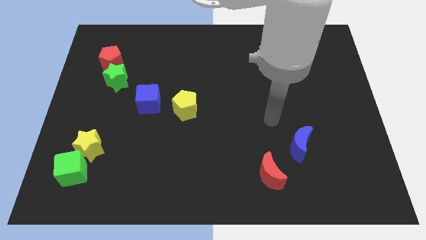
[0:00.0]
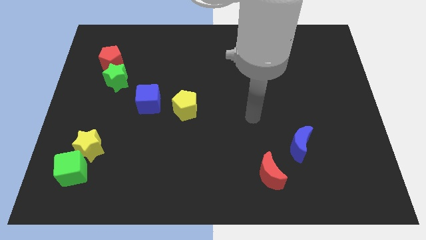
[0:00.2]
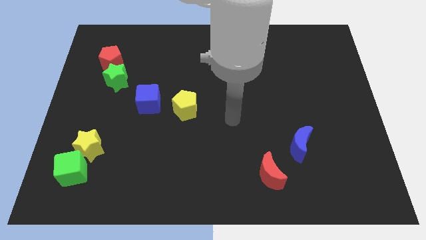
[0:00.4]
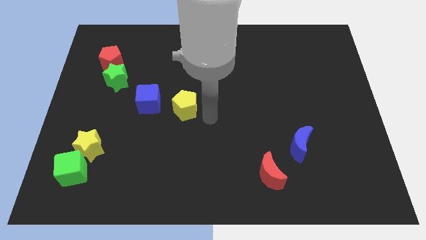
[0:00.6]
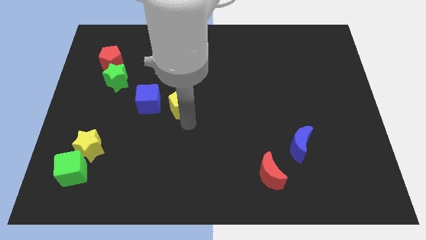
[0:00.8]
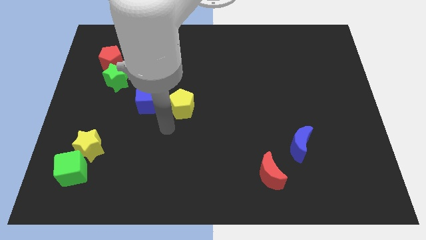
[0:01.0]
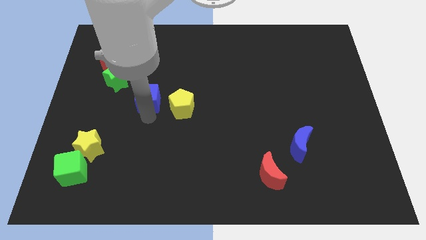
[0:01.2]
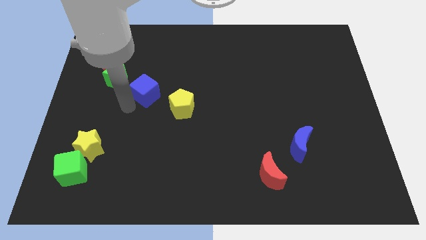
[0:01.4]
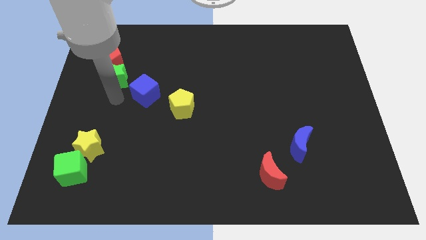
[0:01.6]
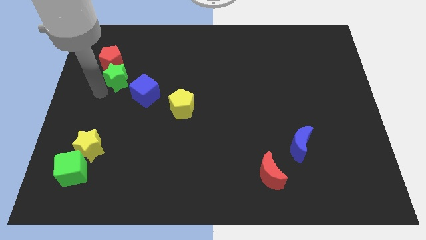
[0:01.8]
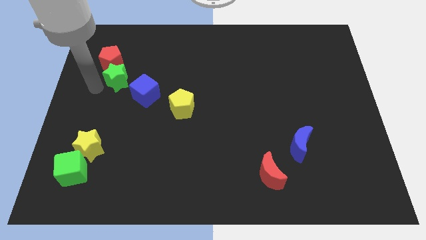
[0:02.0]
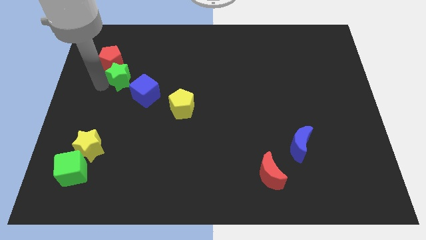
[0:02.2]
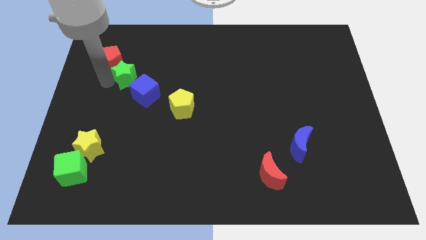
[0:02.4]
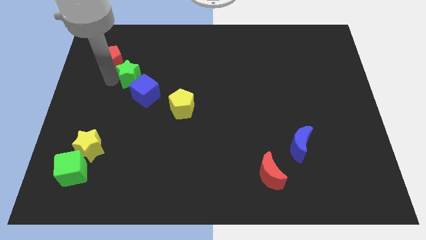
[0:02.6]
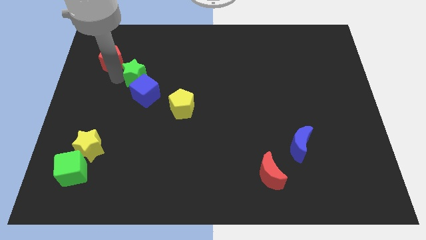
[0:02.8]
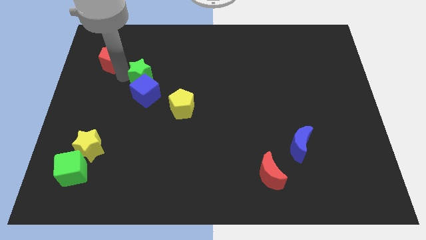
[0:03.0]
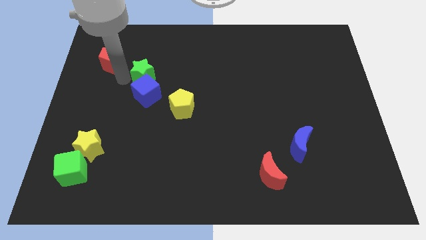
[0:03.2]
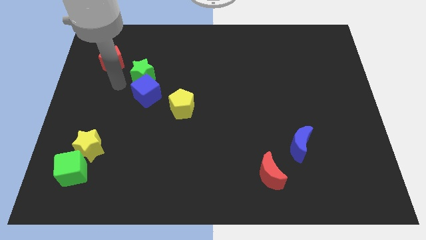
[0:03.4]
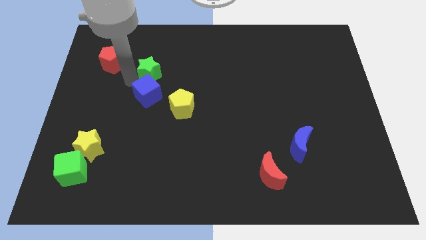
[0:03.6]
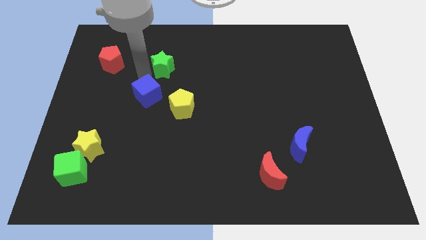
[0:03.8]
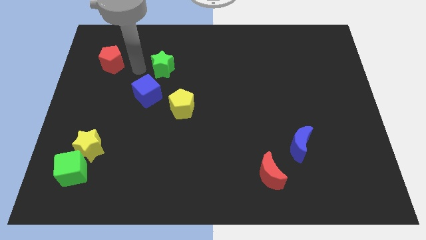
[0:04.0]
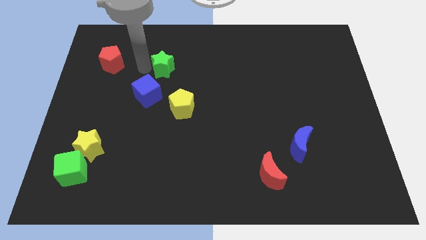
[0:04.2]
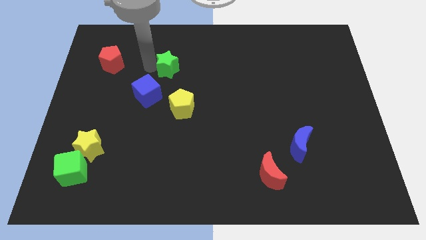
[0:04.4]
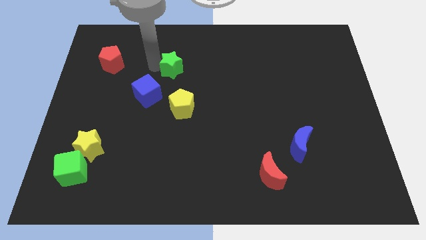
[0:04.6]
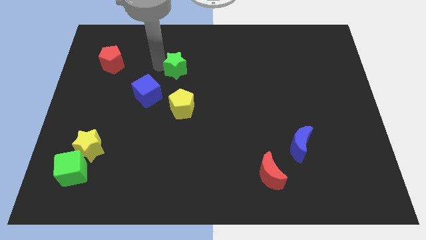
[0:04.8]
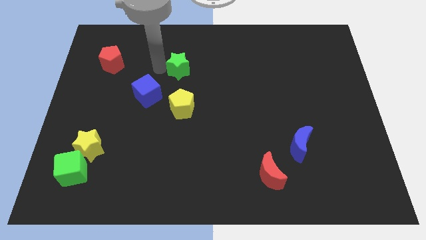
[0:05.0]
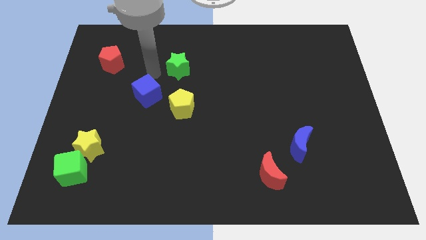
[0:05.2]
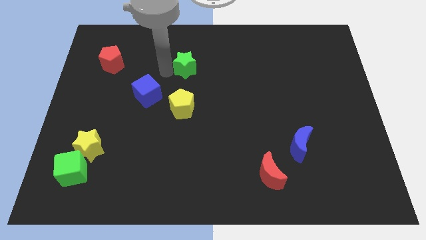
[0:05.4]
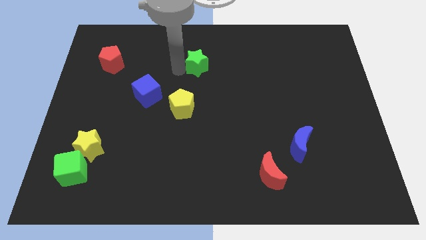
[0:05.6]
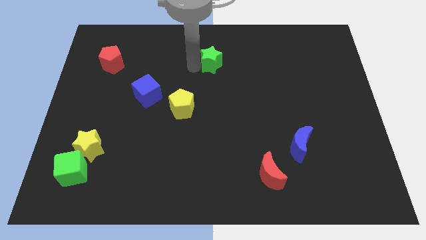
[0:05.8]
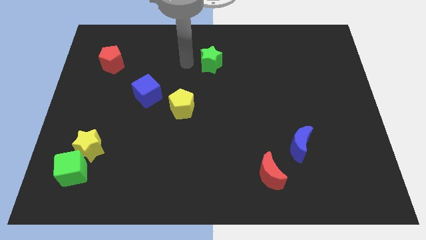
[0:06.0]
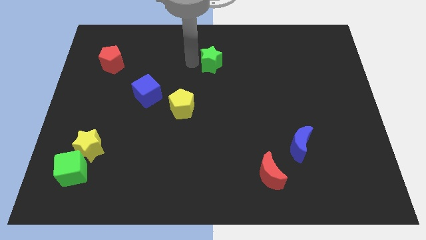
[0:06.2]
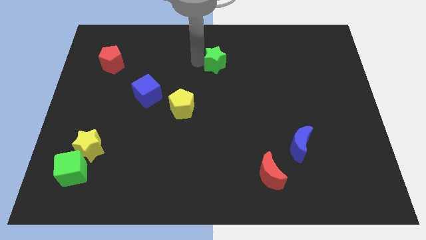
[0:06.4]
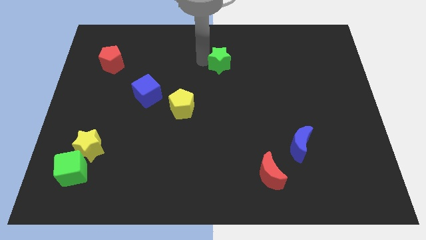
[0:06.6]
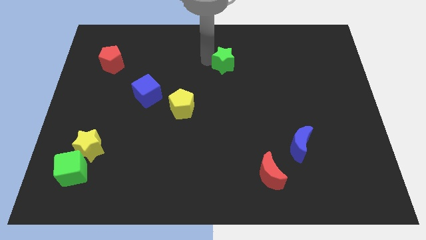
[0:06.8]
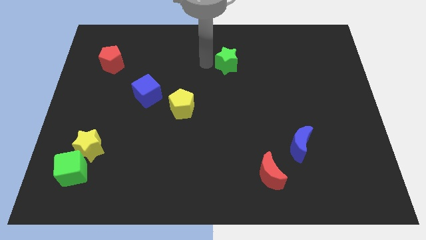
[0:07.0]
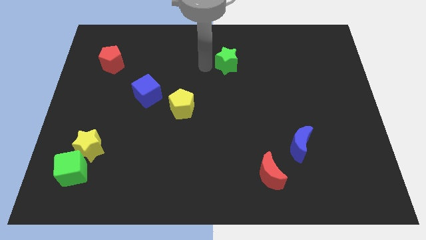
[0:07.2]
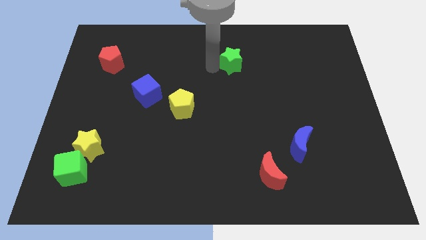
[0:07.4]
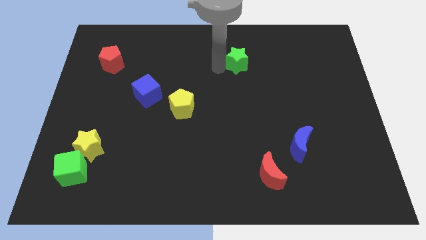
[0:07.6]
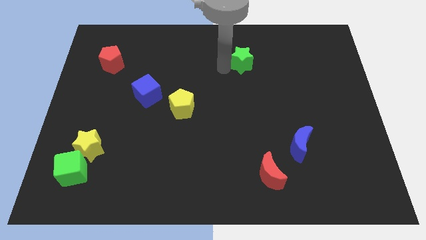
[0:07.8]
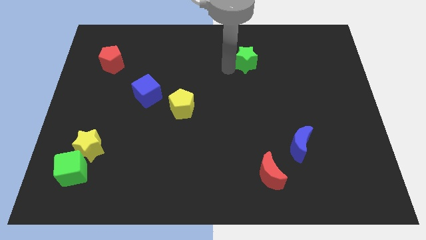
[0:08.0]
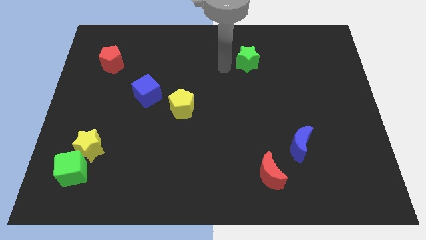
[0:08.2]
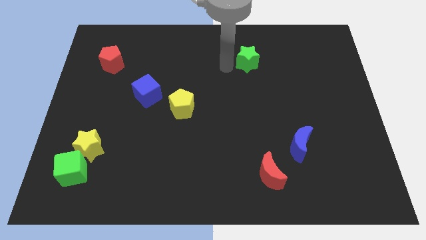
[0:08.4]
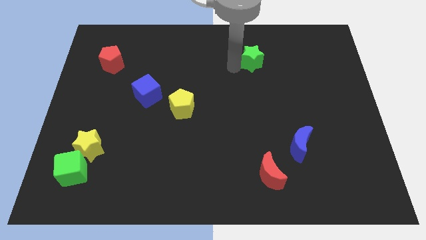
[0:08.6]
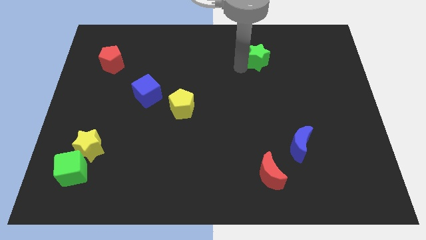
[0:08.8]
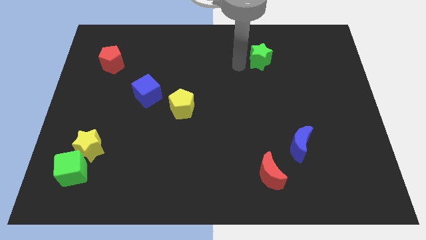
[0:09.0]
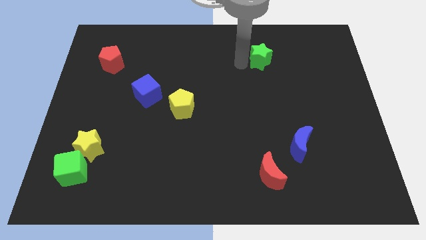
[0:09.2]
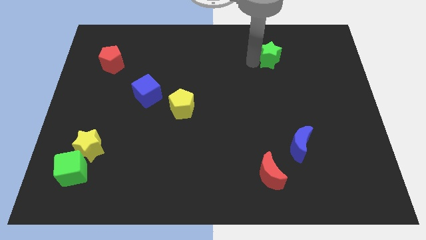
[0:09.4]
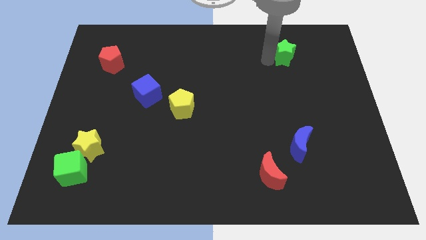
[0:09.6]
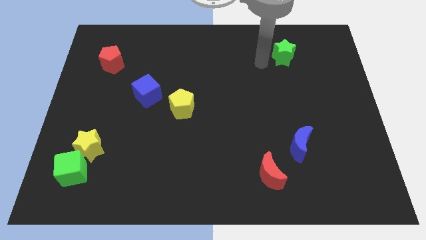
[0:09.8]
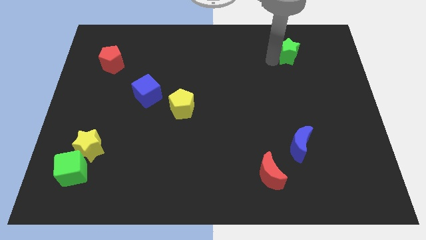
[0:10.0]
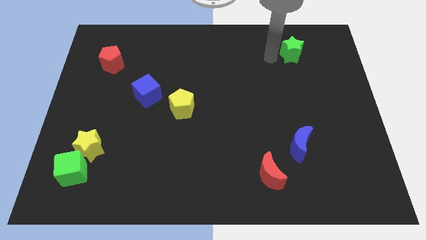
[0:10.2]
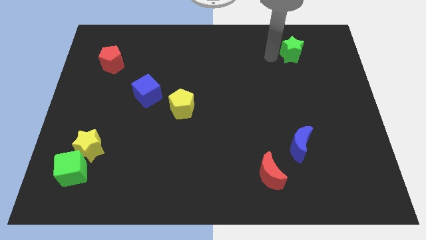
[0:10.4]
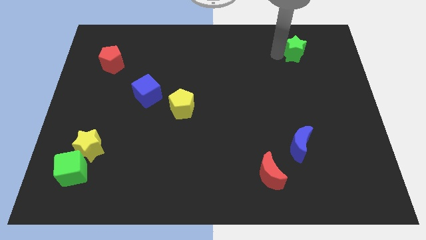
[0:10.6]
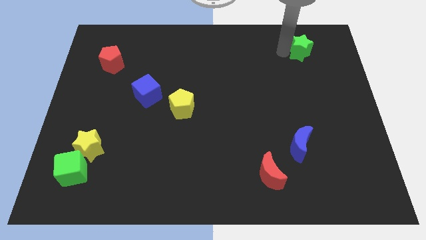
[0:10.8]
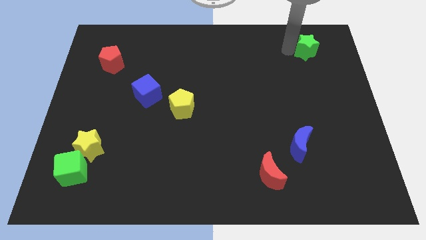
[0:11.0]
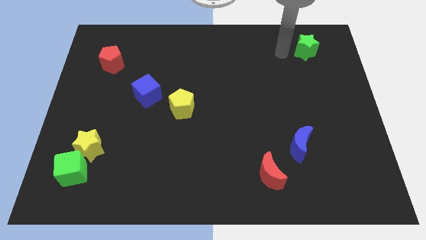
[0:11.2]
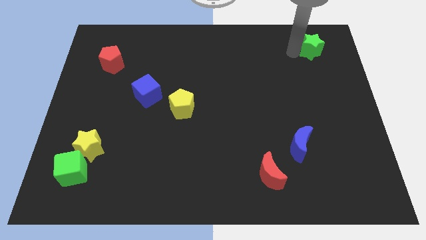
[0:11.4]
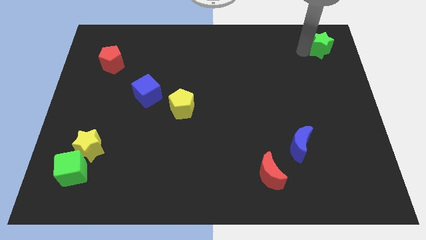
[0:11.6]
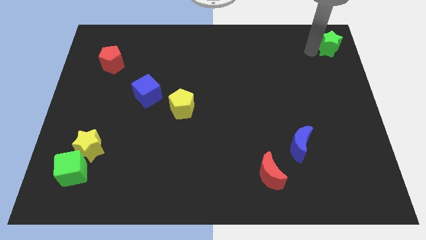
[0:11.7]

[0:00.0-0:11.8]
slide the green star to the top right corner
